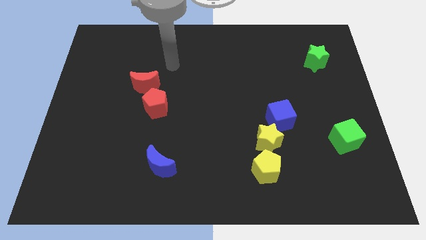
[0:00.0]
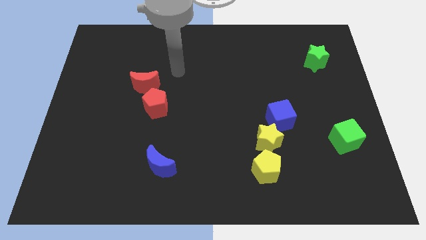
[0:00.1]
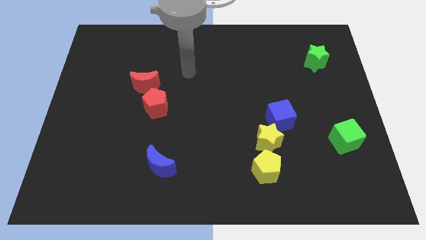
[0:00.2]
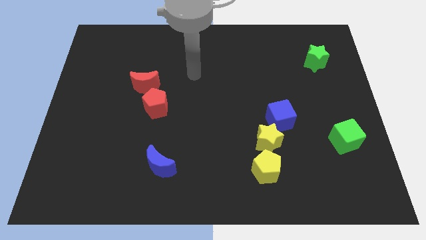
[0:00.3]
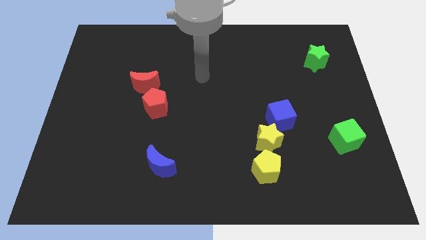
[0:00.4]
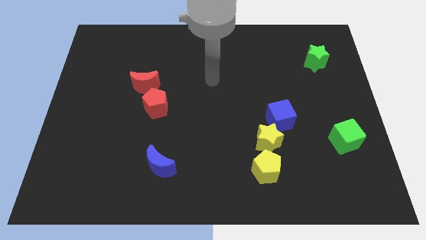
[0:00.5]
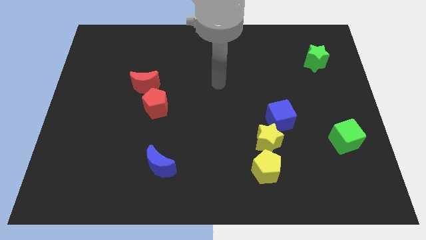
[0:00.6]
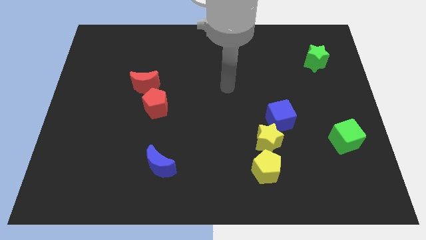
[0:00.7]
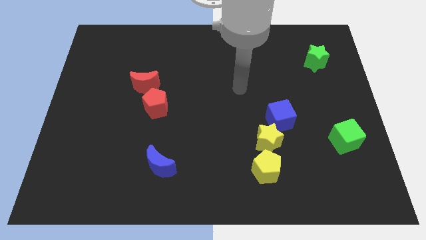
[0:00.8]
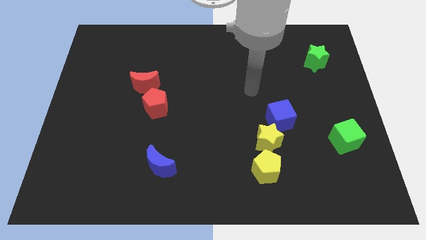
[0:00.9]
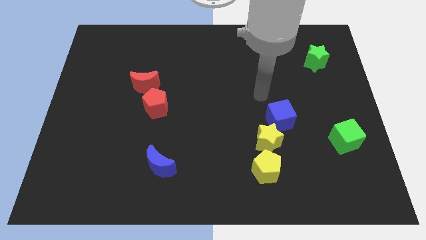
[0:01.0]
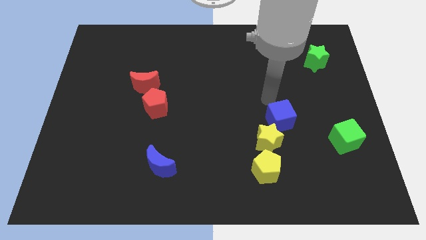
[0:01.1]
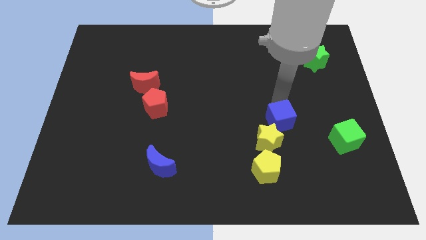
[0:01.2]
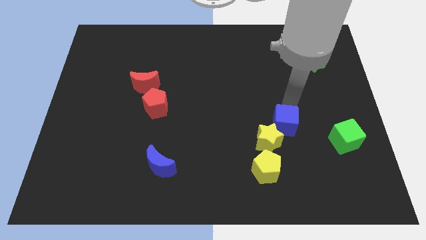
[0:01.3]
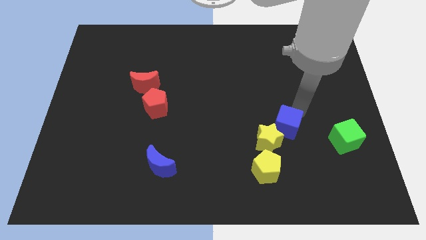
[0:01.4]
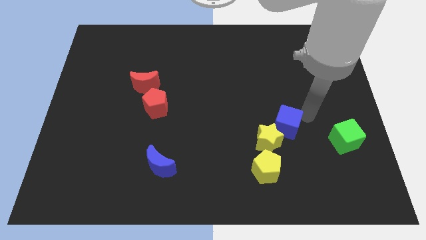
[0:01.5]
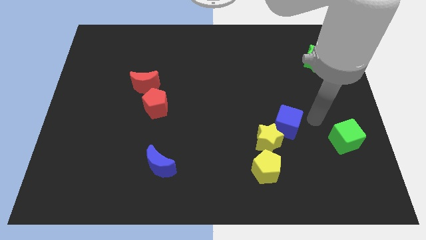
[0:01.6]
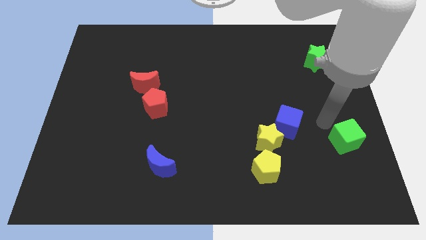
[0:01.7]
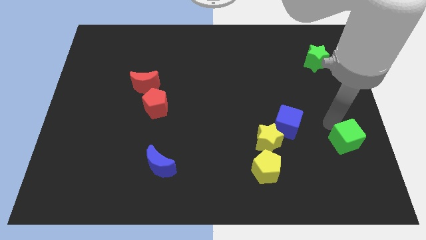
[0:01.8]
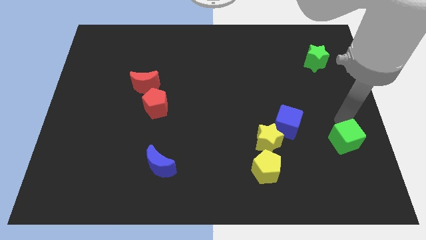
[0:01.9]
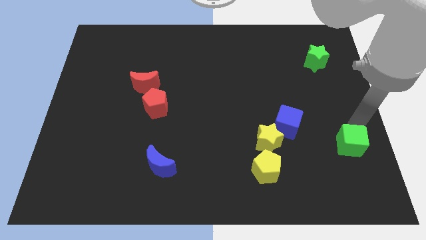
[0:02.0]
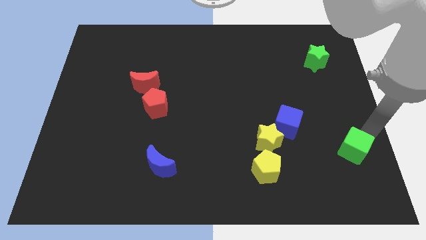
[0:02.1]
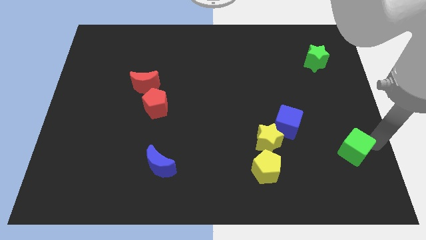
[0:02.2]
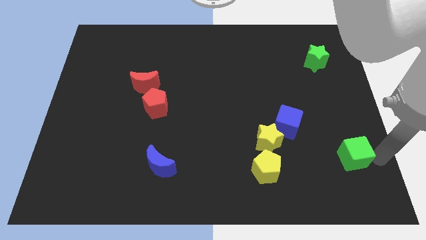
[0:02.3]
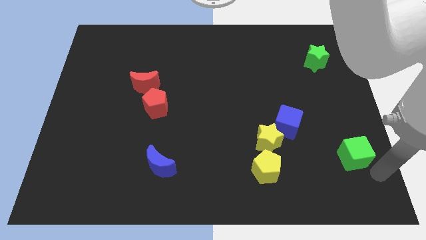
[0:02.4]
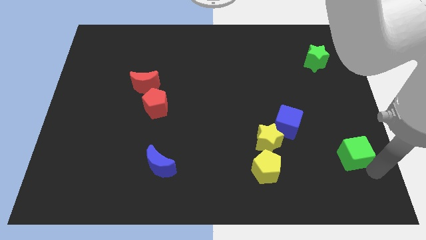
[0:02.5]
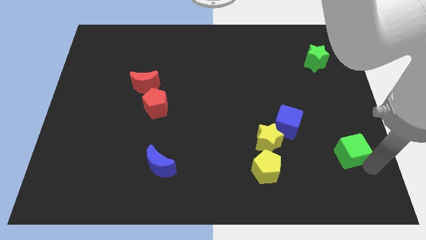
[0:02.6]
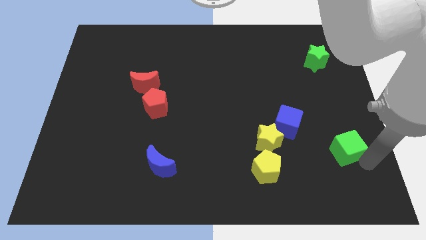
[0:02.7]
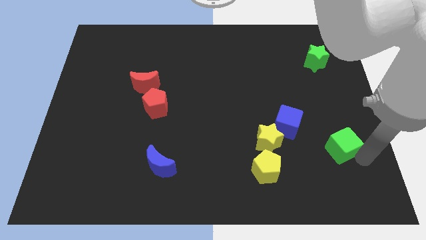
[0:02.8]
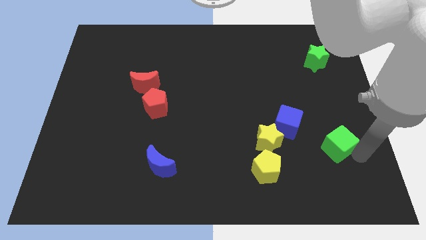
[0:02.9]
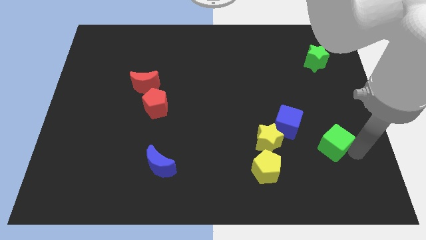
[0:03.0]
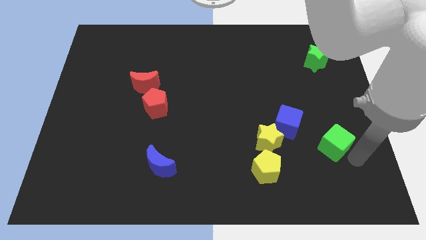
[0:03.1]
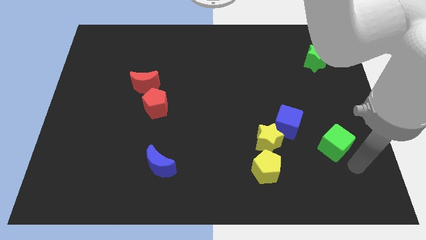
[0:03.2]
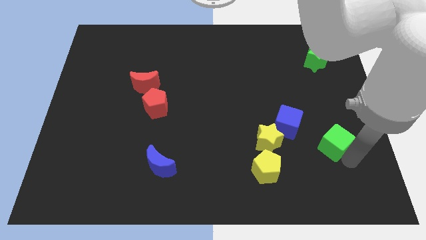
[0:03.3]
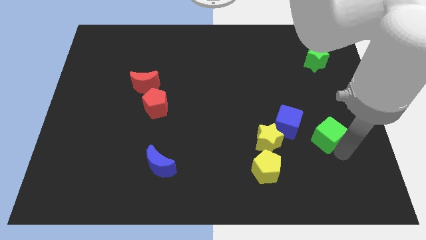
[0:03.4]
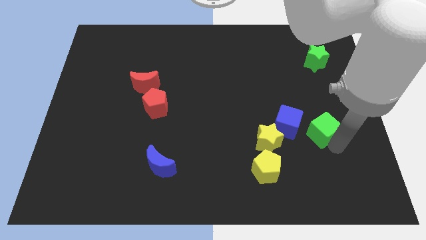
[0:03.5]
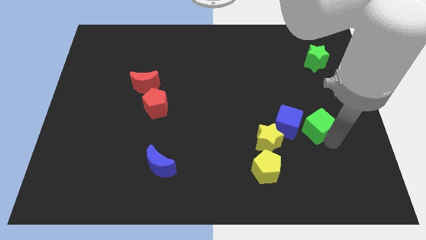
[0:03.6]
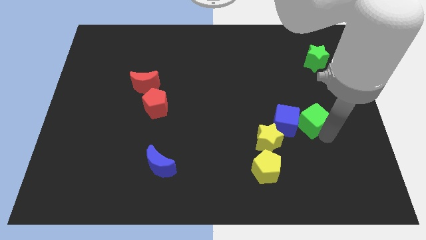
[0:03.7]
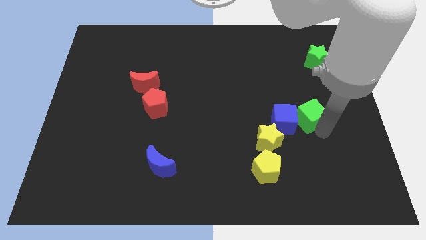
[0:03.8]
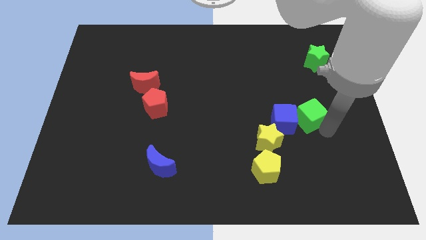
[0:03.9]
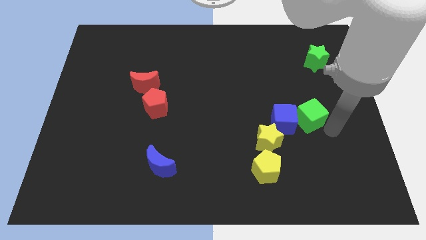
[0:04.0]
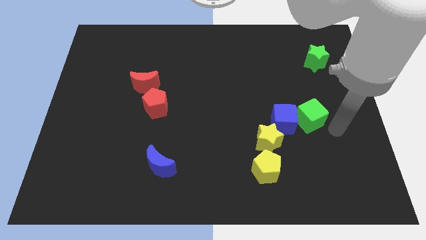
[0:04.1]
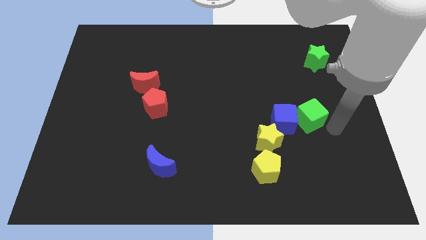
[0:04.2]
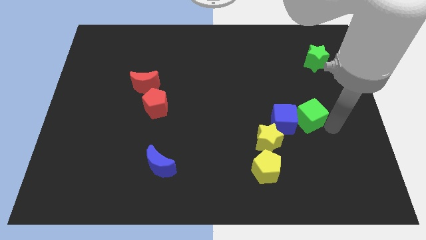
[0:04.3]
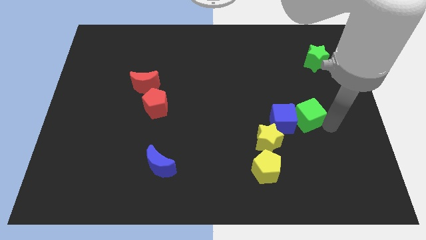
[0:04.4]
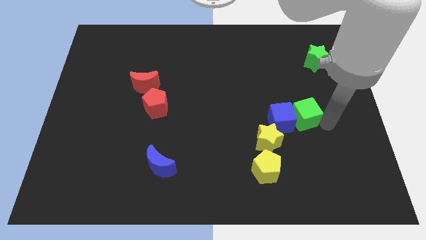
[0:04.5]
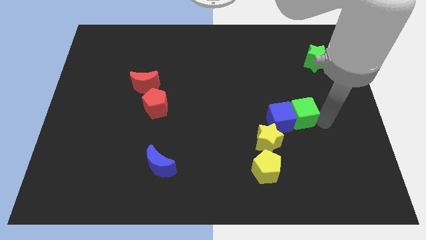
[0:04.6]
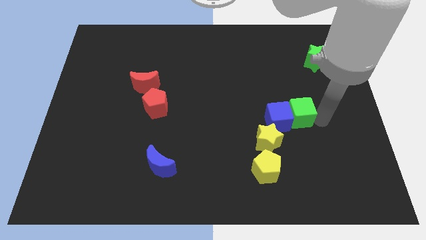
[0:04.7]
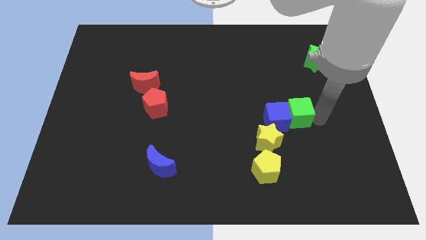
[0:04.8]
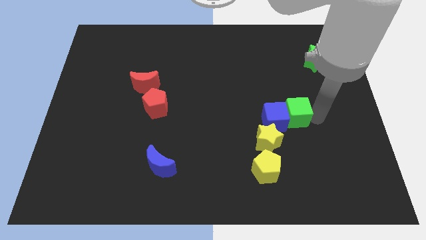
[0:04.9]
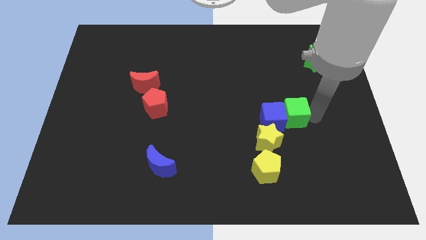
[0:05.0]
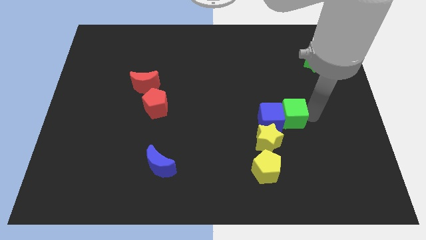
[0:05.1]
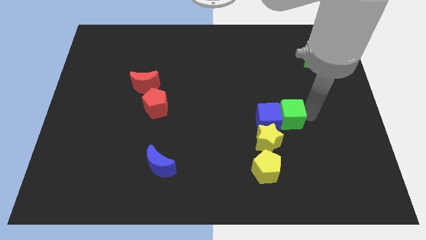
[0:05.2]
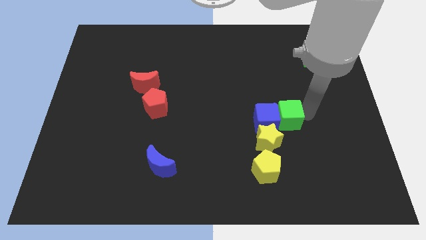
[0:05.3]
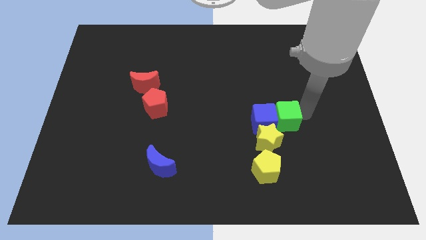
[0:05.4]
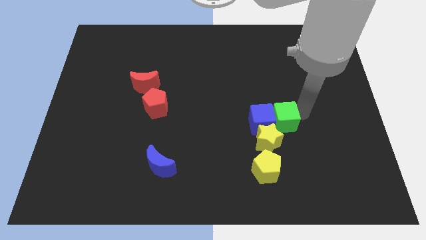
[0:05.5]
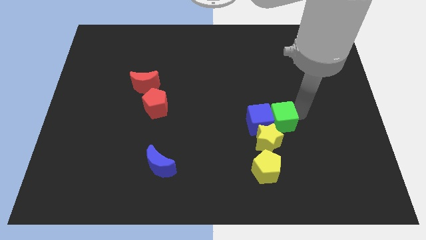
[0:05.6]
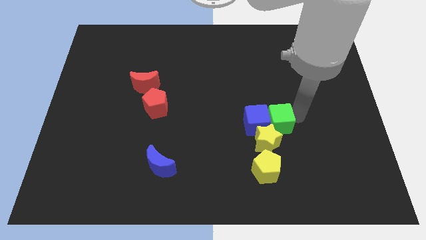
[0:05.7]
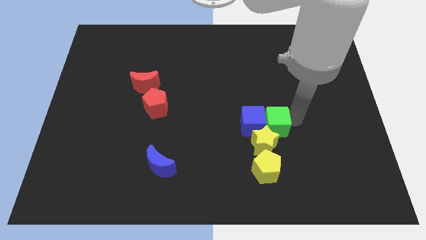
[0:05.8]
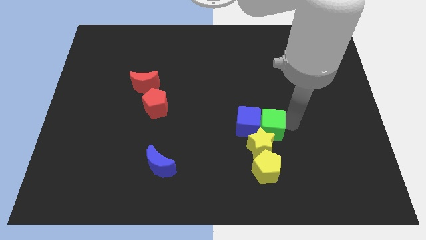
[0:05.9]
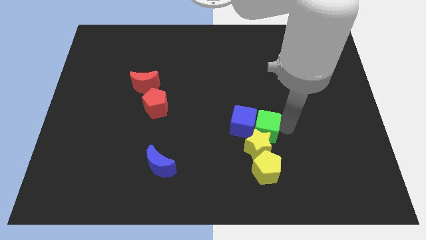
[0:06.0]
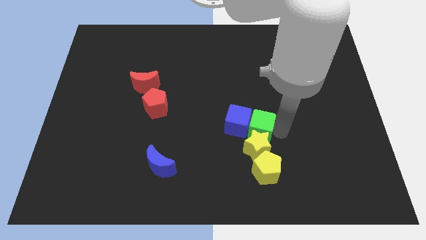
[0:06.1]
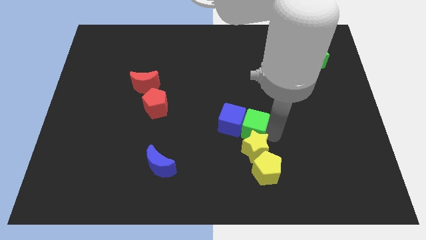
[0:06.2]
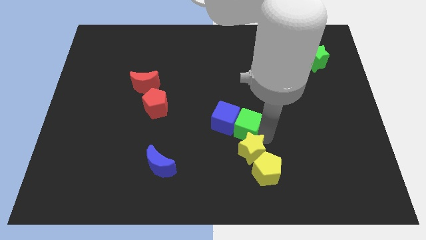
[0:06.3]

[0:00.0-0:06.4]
push the green cube to the left

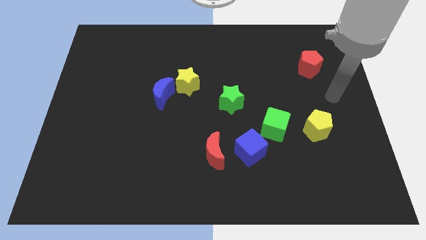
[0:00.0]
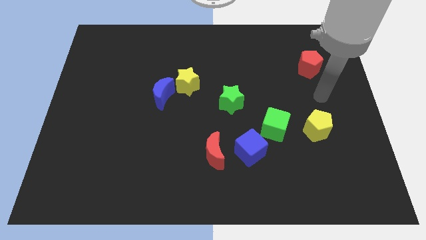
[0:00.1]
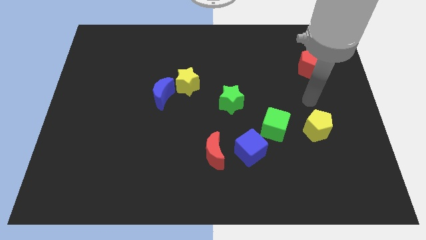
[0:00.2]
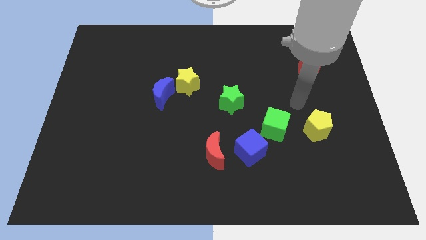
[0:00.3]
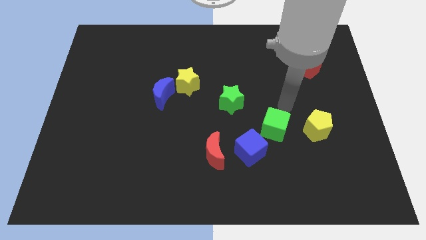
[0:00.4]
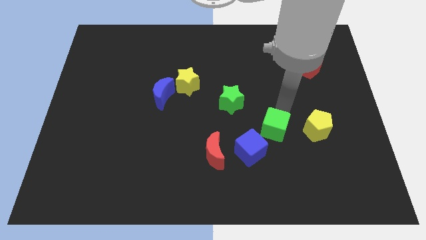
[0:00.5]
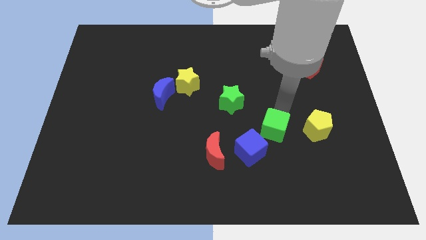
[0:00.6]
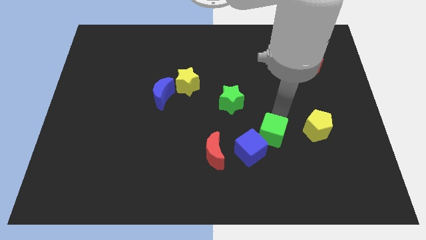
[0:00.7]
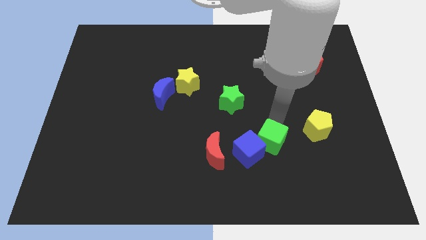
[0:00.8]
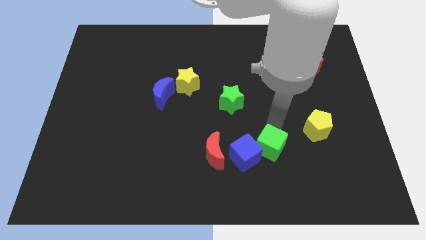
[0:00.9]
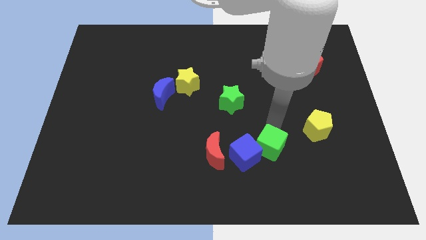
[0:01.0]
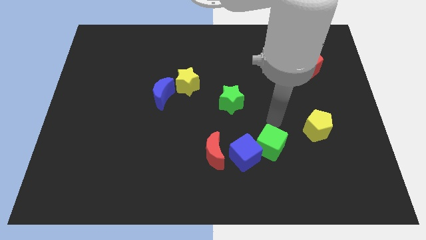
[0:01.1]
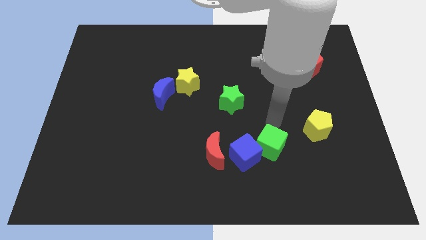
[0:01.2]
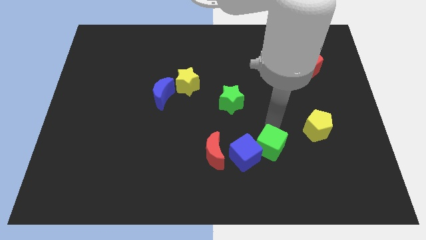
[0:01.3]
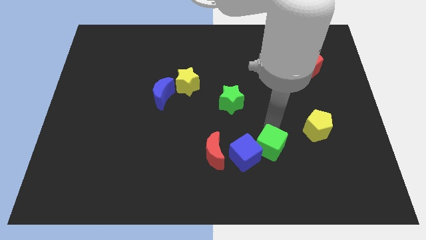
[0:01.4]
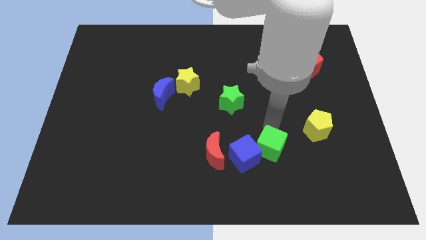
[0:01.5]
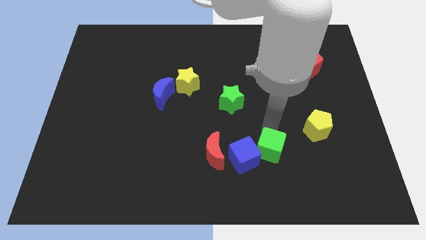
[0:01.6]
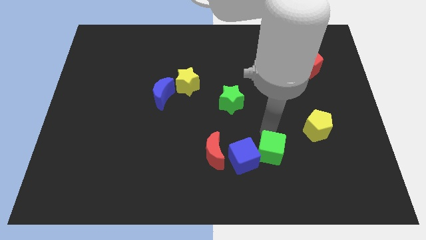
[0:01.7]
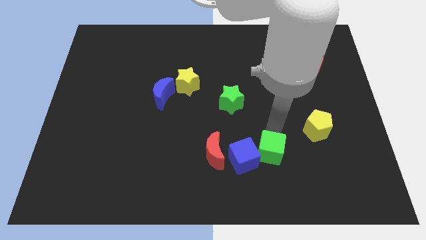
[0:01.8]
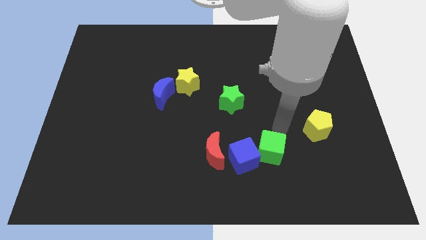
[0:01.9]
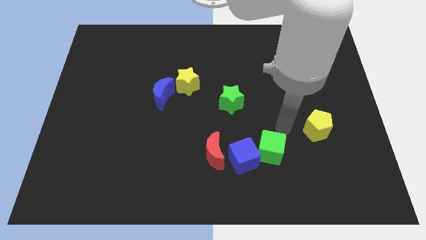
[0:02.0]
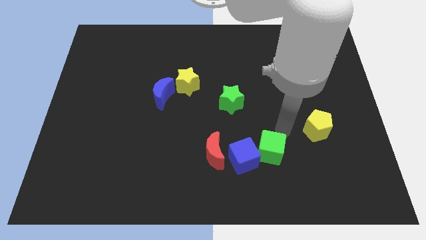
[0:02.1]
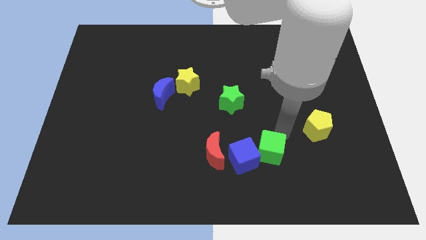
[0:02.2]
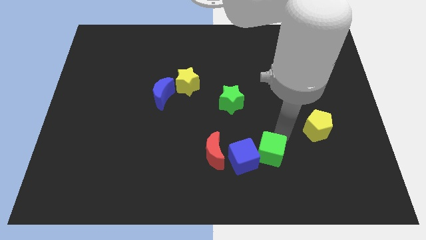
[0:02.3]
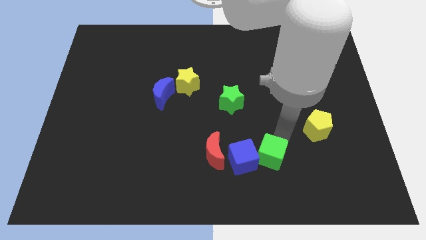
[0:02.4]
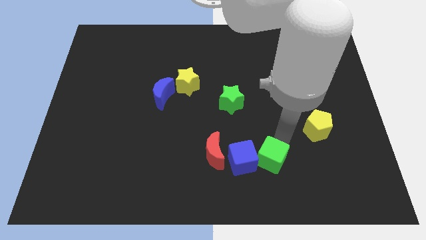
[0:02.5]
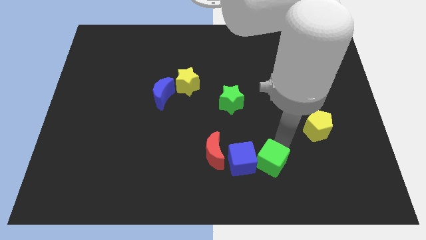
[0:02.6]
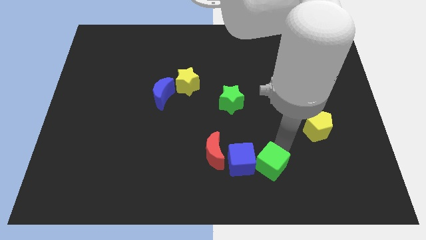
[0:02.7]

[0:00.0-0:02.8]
slide the green cube downwards and to the left somewhat
